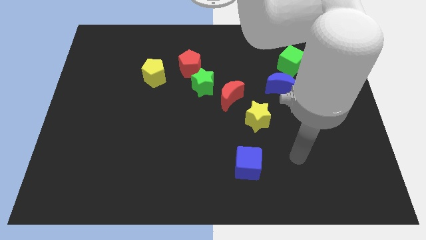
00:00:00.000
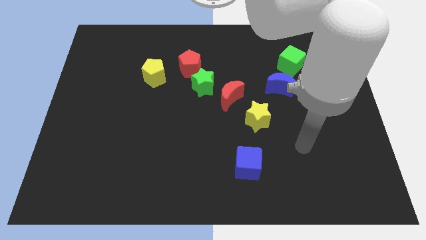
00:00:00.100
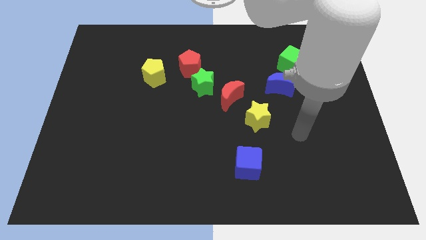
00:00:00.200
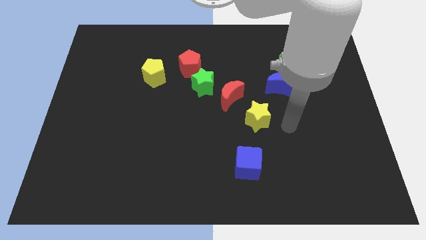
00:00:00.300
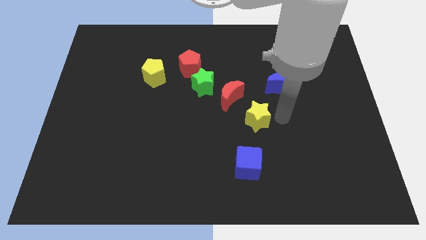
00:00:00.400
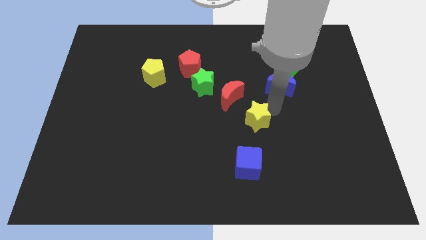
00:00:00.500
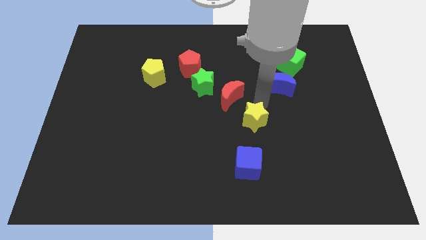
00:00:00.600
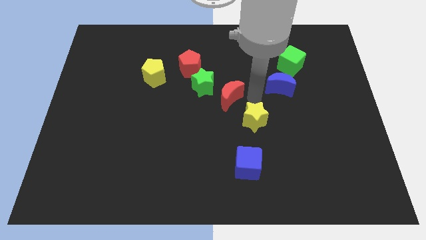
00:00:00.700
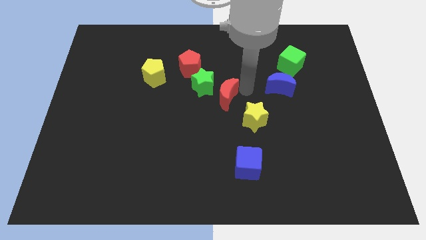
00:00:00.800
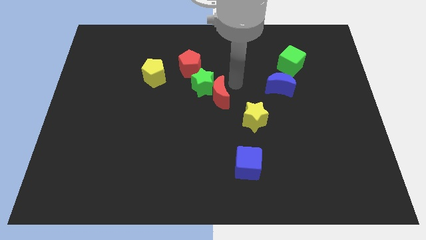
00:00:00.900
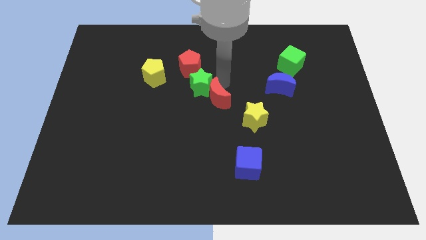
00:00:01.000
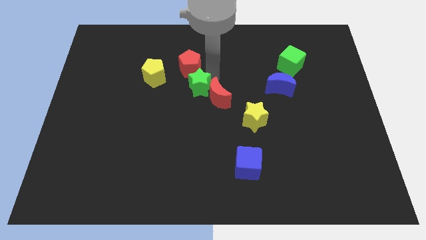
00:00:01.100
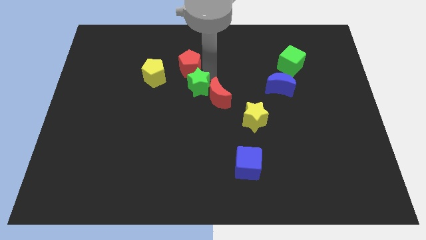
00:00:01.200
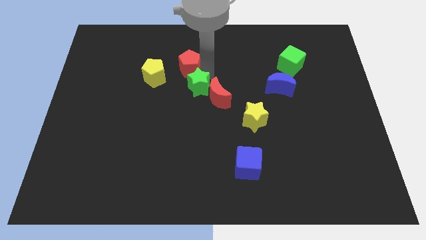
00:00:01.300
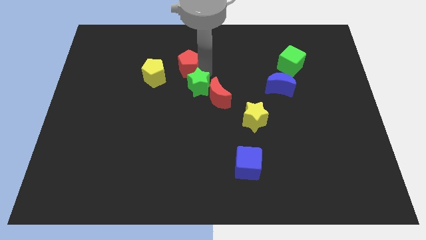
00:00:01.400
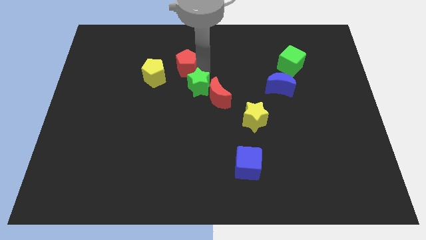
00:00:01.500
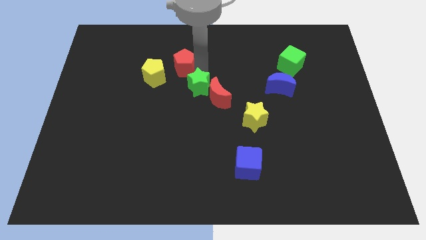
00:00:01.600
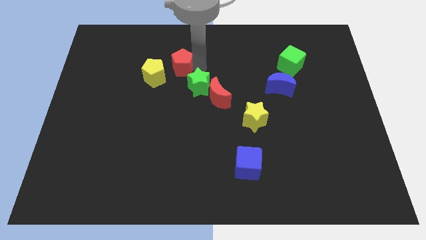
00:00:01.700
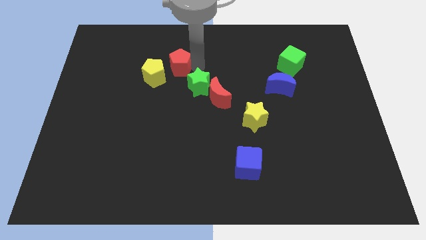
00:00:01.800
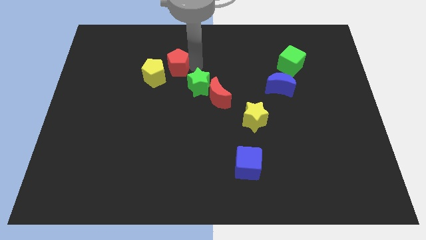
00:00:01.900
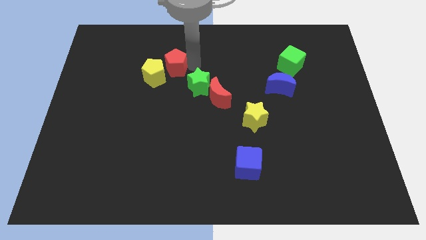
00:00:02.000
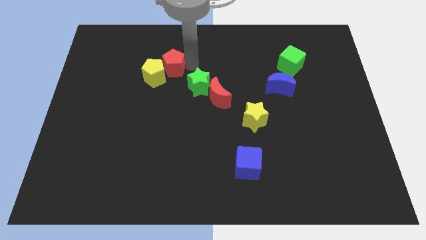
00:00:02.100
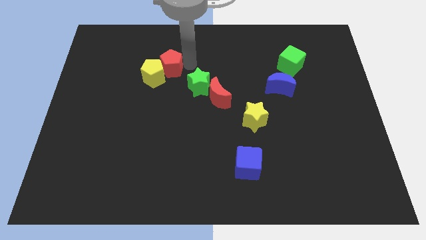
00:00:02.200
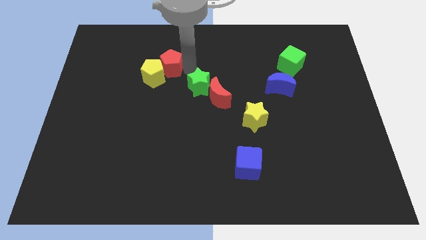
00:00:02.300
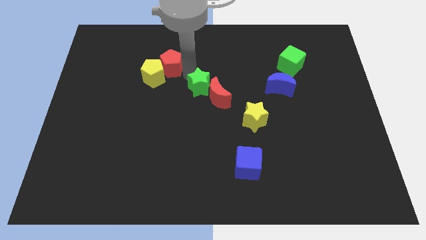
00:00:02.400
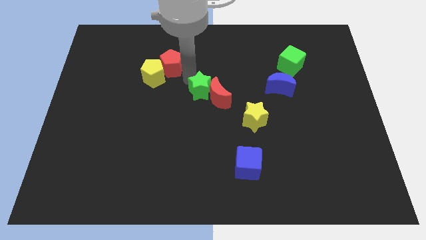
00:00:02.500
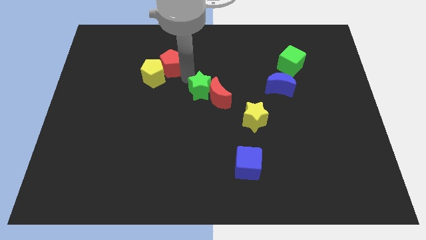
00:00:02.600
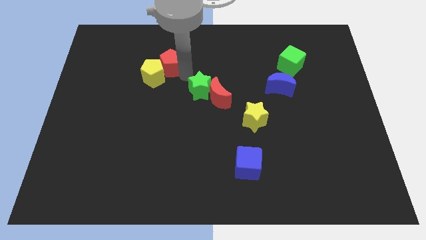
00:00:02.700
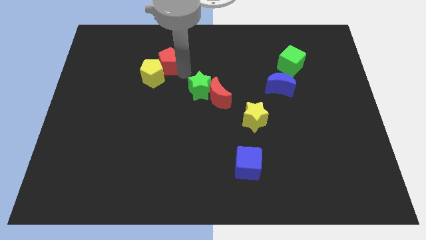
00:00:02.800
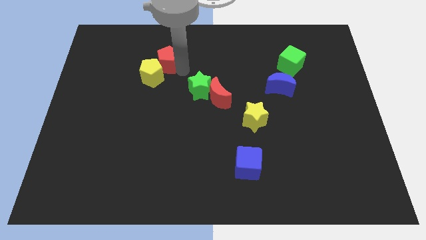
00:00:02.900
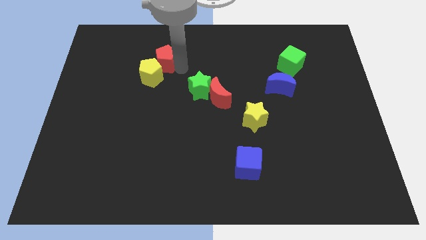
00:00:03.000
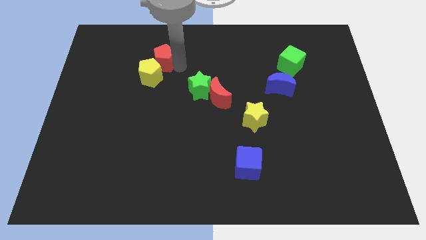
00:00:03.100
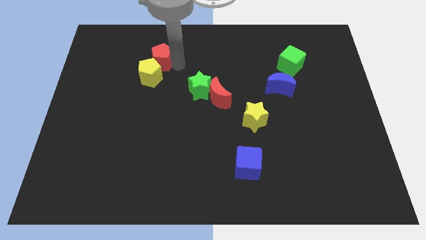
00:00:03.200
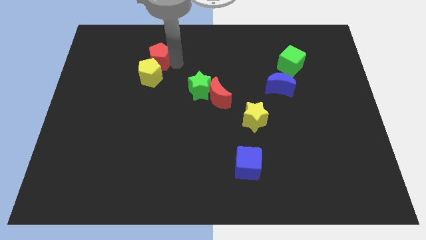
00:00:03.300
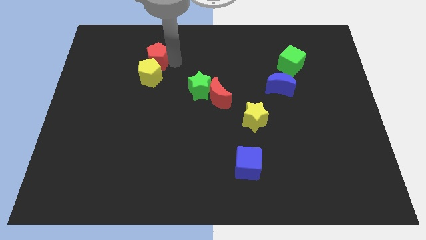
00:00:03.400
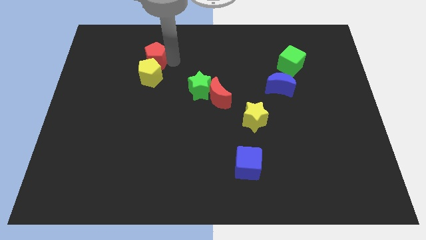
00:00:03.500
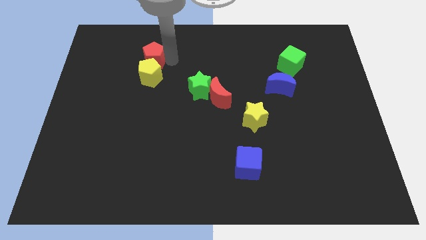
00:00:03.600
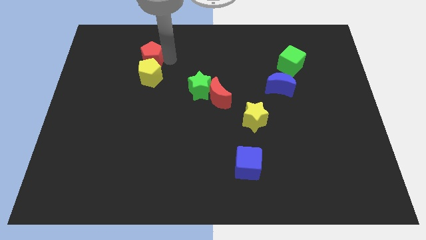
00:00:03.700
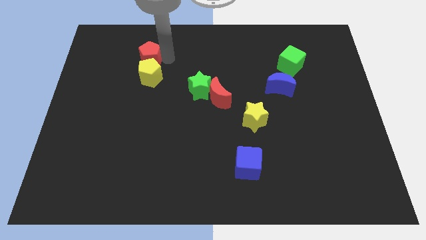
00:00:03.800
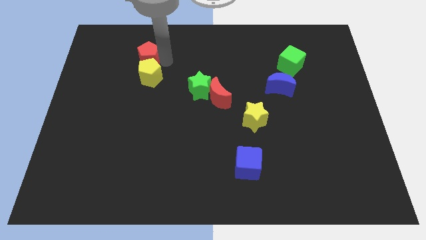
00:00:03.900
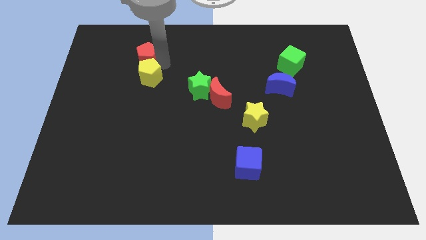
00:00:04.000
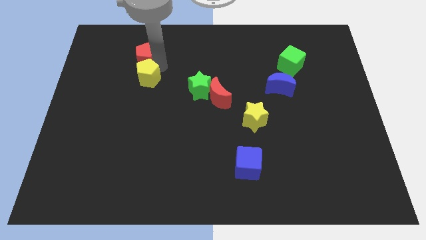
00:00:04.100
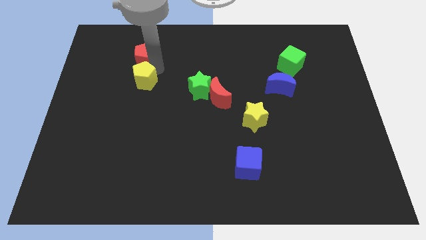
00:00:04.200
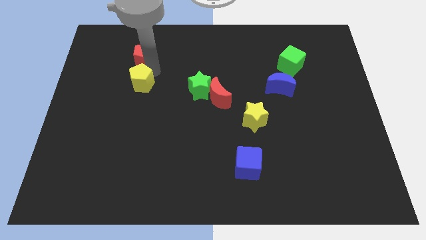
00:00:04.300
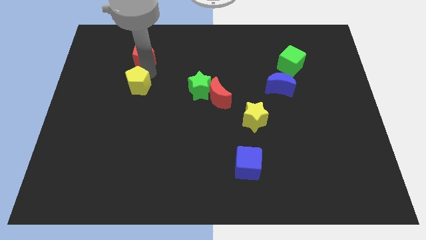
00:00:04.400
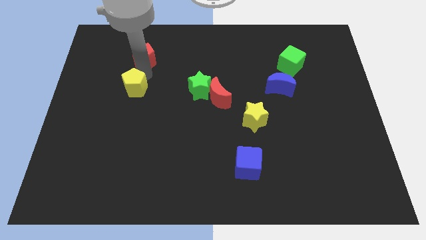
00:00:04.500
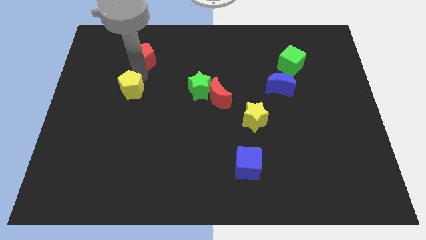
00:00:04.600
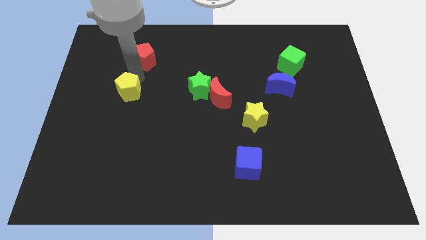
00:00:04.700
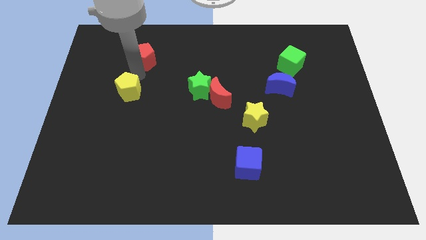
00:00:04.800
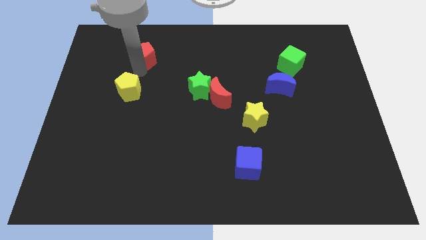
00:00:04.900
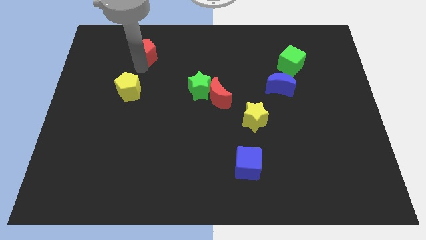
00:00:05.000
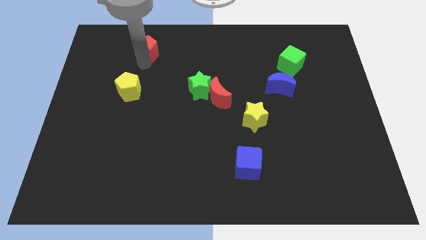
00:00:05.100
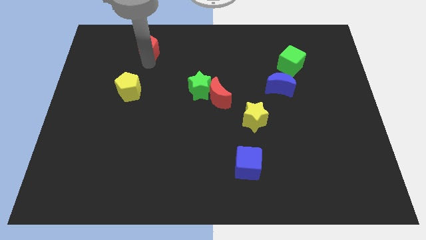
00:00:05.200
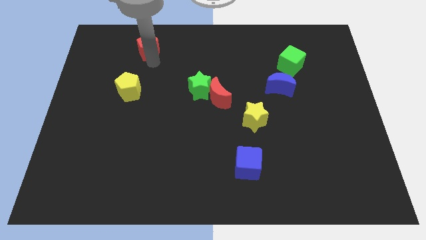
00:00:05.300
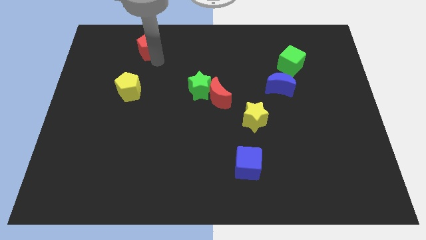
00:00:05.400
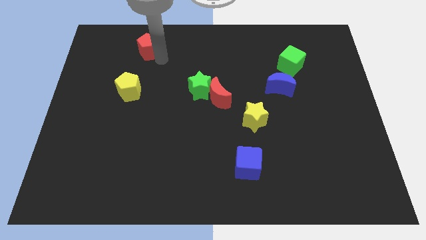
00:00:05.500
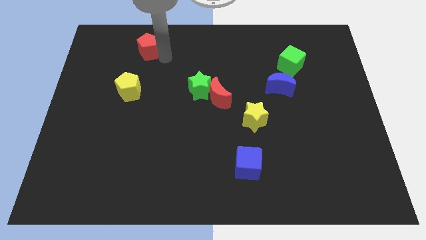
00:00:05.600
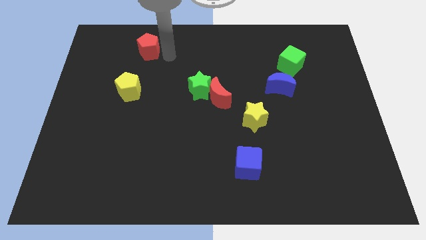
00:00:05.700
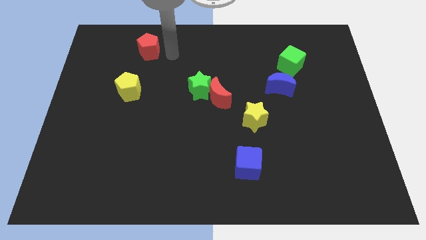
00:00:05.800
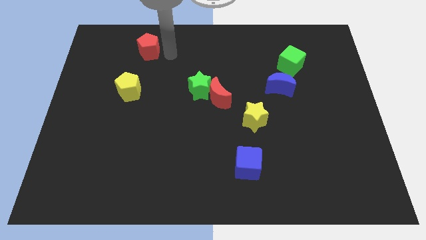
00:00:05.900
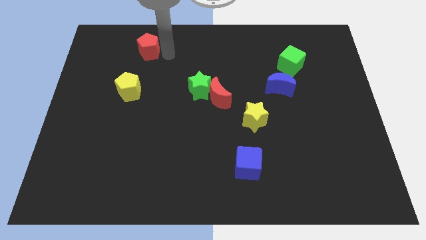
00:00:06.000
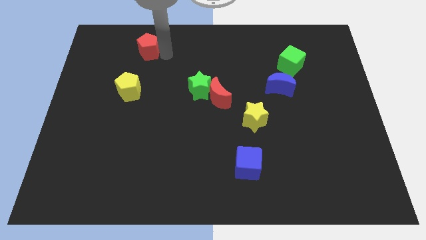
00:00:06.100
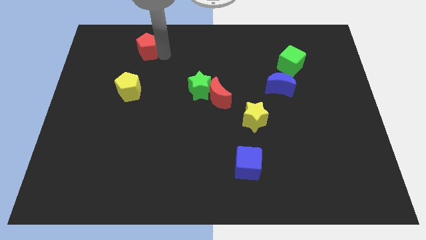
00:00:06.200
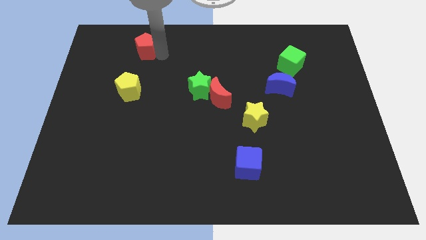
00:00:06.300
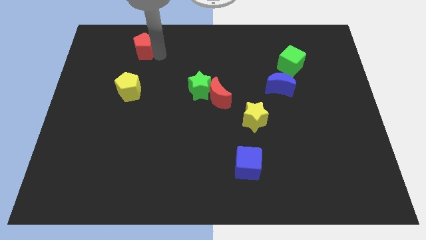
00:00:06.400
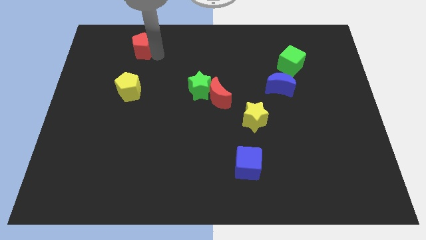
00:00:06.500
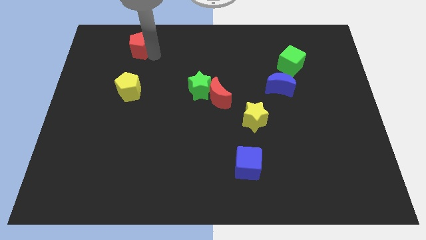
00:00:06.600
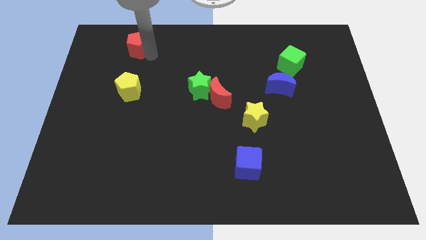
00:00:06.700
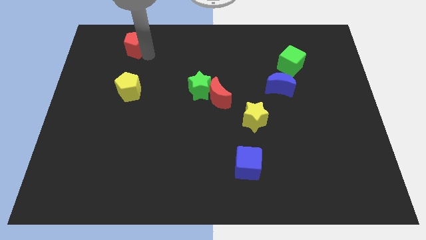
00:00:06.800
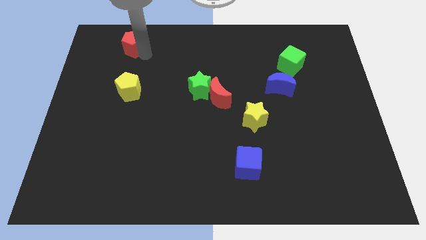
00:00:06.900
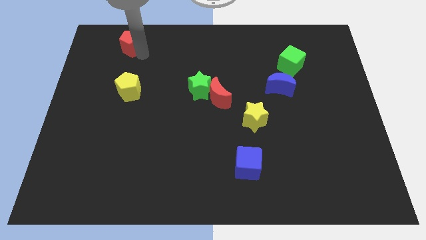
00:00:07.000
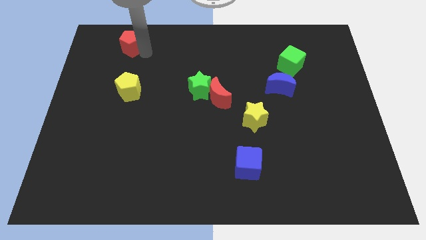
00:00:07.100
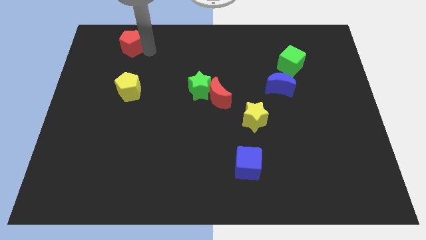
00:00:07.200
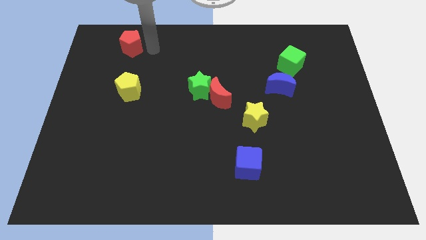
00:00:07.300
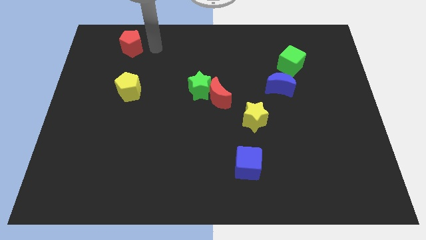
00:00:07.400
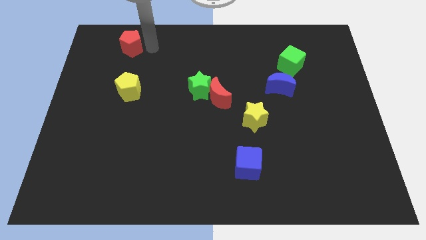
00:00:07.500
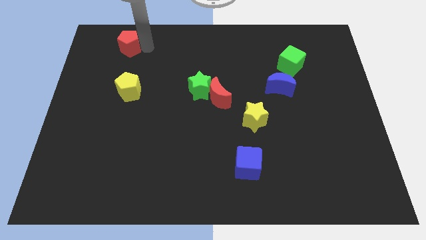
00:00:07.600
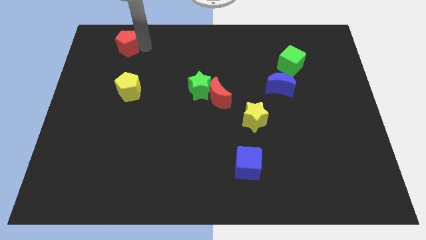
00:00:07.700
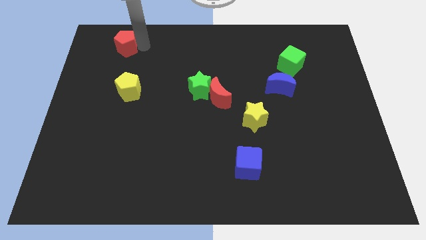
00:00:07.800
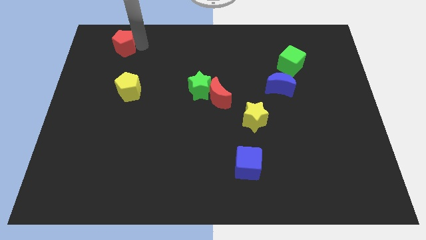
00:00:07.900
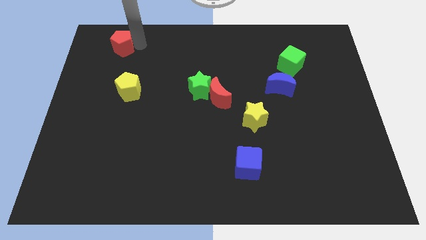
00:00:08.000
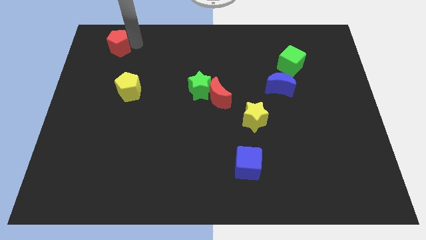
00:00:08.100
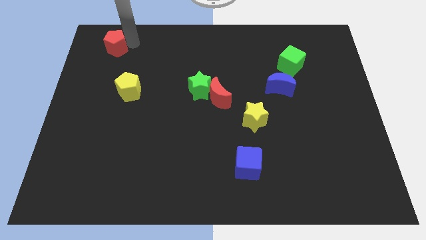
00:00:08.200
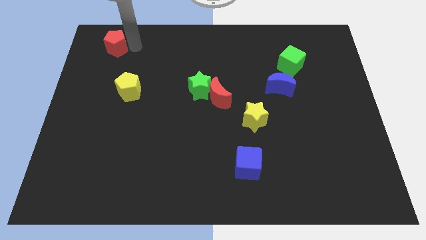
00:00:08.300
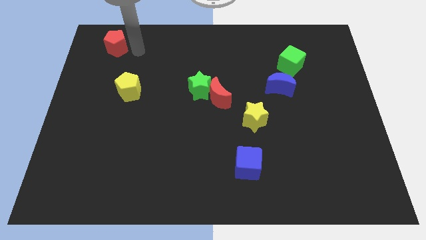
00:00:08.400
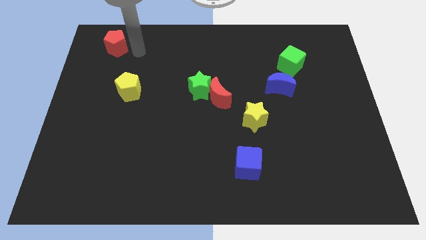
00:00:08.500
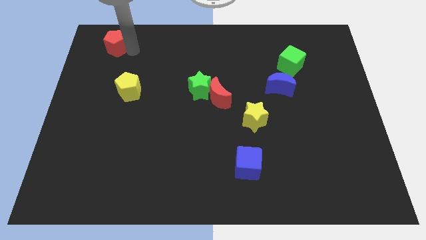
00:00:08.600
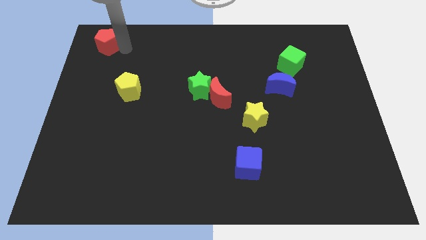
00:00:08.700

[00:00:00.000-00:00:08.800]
put the red pentagon to the top left of the board
